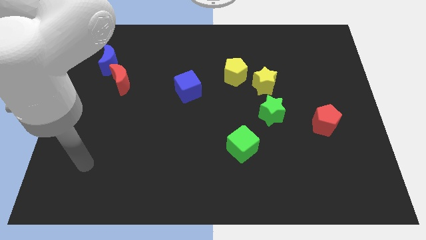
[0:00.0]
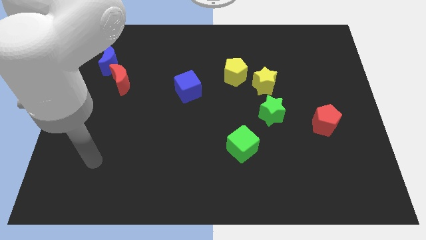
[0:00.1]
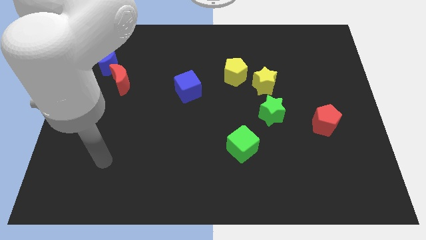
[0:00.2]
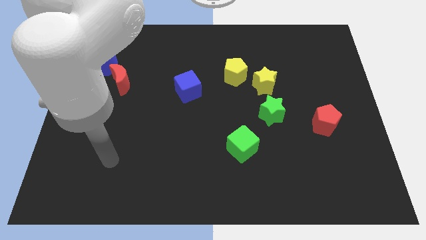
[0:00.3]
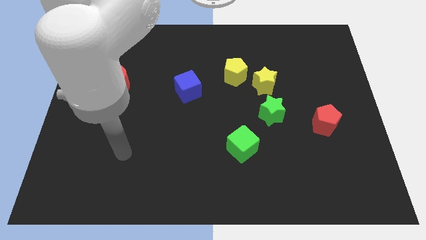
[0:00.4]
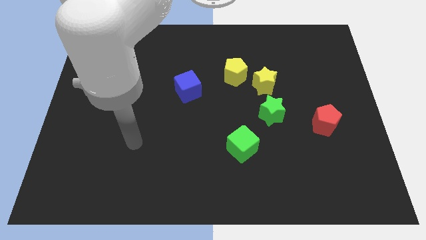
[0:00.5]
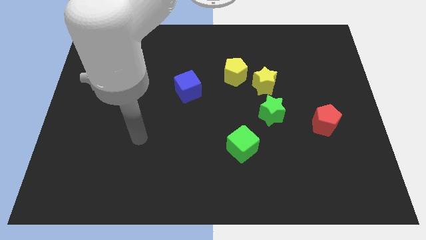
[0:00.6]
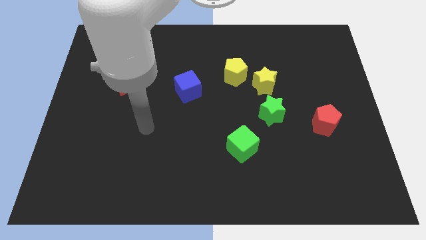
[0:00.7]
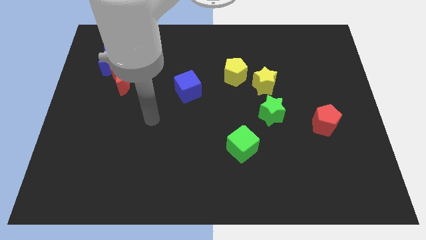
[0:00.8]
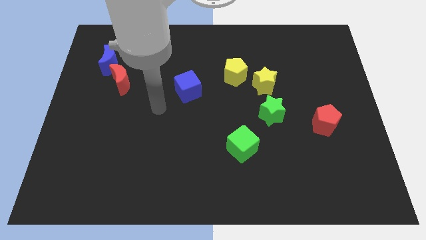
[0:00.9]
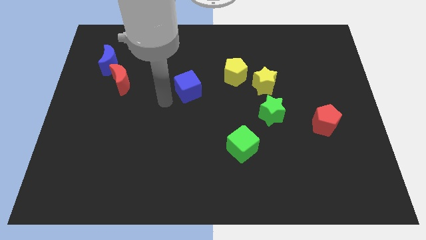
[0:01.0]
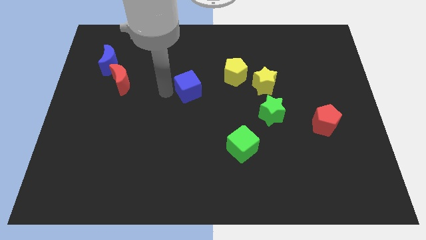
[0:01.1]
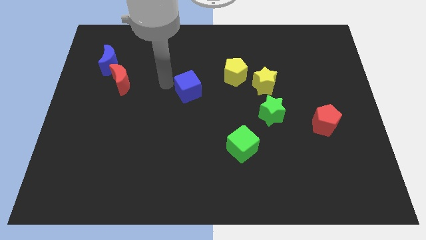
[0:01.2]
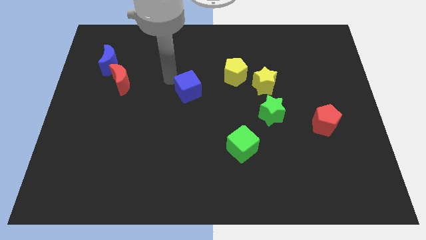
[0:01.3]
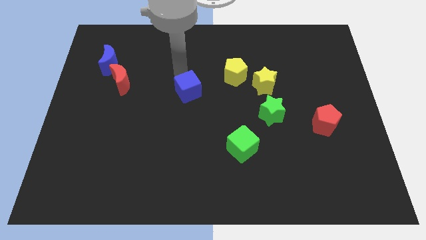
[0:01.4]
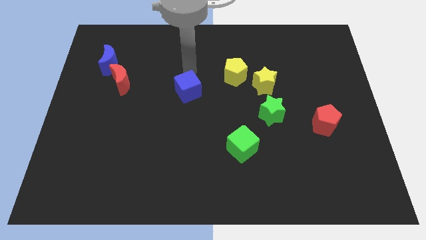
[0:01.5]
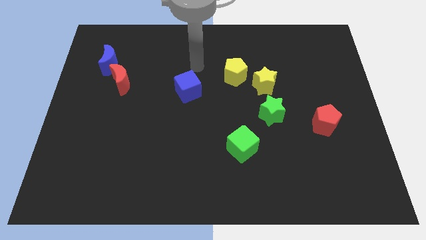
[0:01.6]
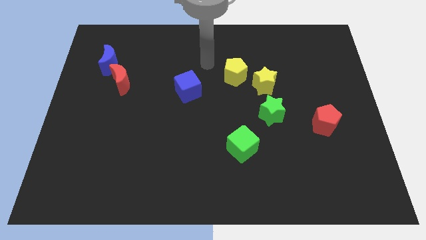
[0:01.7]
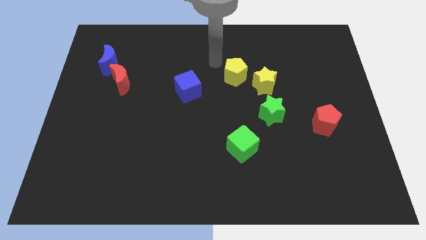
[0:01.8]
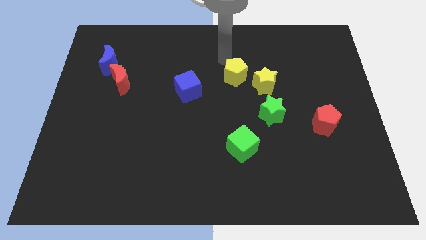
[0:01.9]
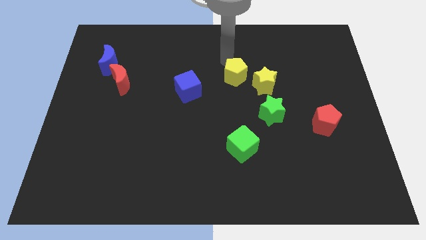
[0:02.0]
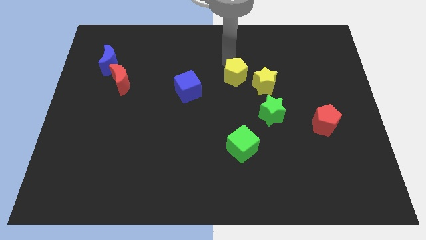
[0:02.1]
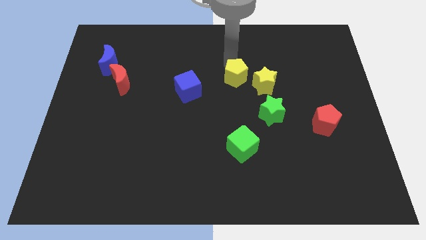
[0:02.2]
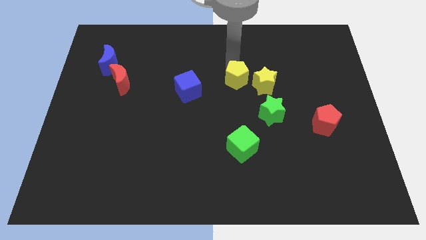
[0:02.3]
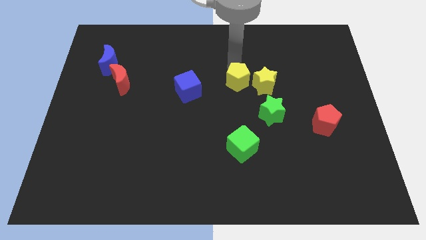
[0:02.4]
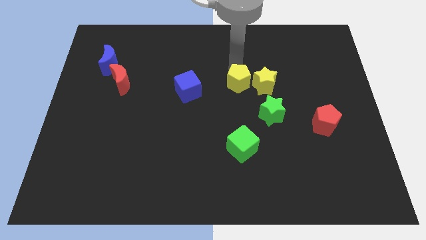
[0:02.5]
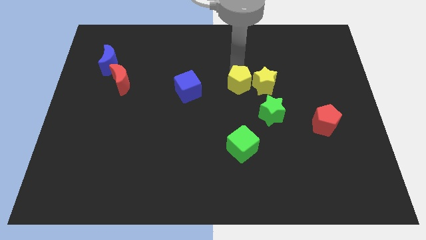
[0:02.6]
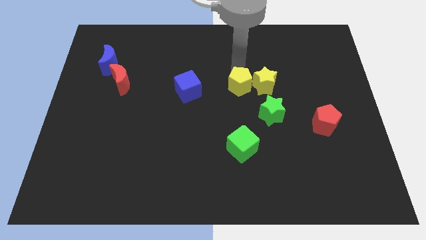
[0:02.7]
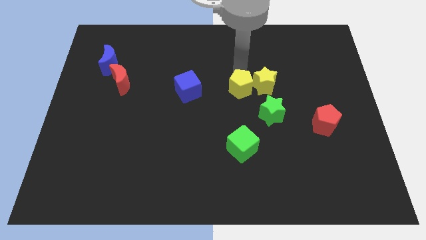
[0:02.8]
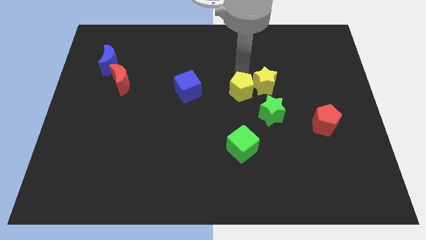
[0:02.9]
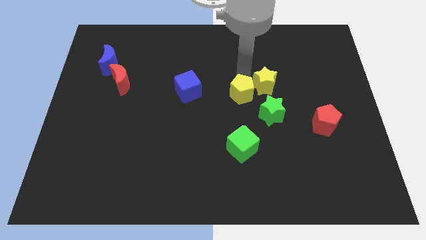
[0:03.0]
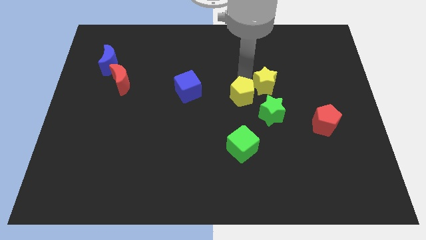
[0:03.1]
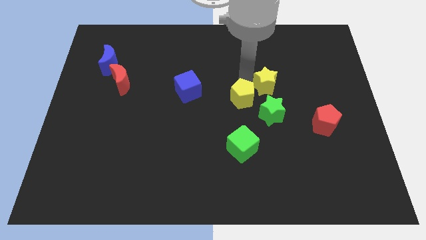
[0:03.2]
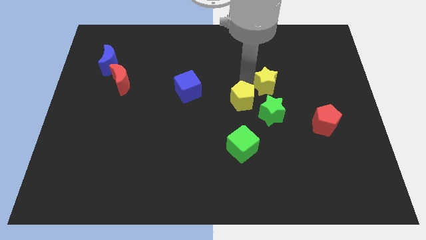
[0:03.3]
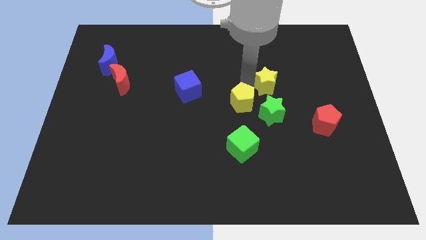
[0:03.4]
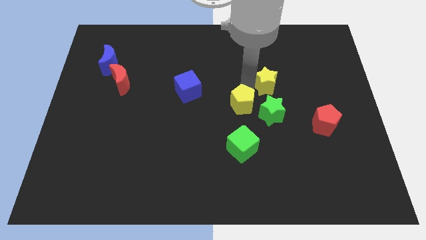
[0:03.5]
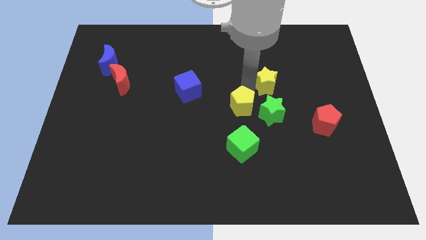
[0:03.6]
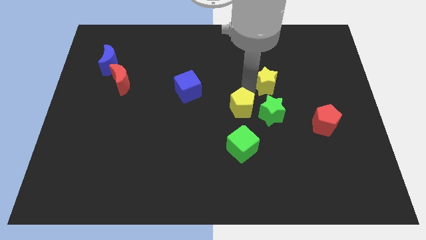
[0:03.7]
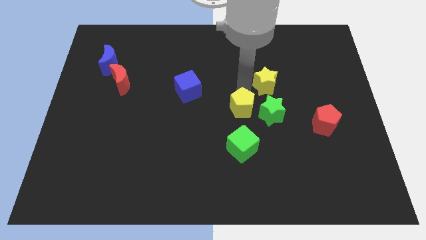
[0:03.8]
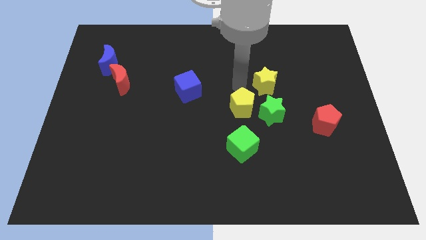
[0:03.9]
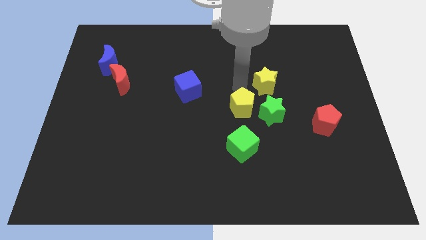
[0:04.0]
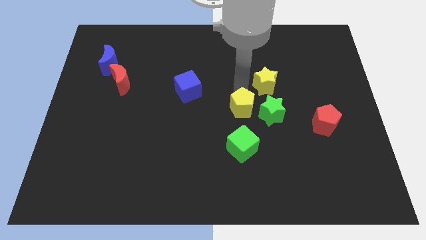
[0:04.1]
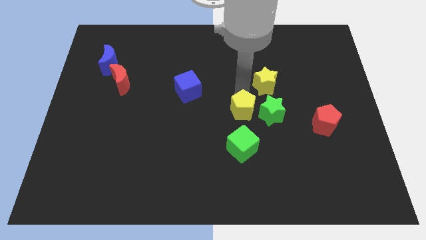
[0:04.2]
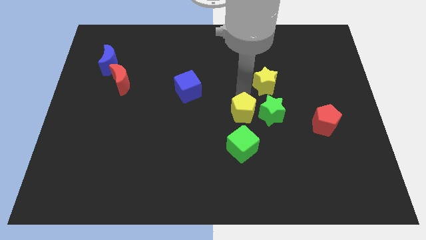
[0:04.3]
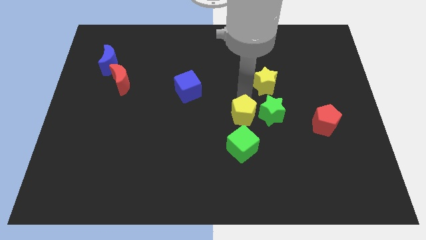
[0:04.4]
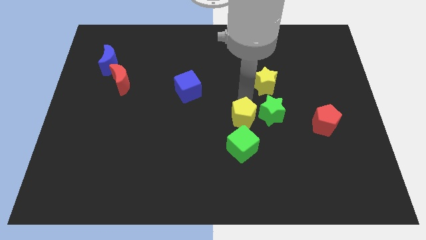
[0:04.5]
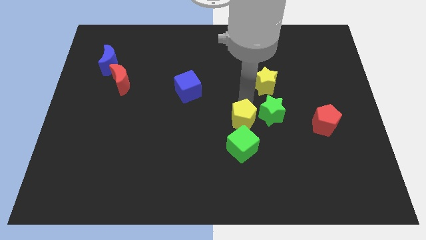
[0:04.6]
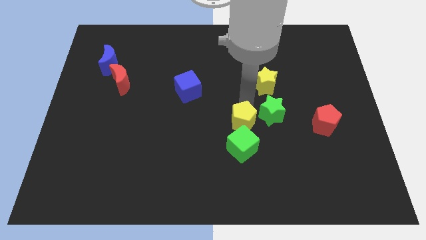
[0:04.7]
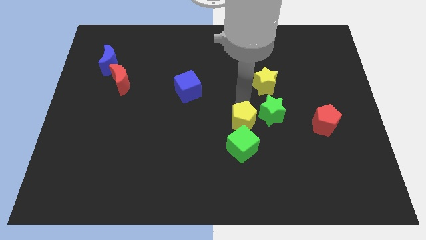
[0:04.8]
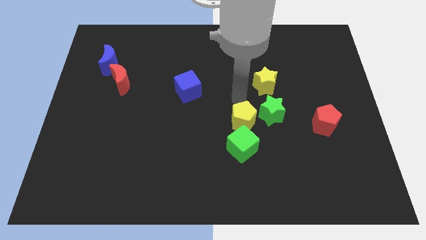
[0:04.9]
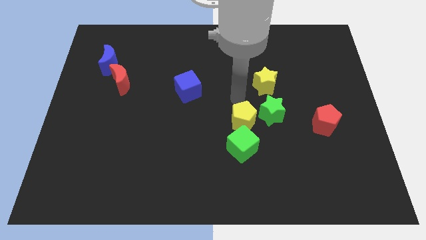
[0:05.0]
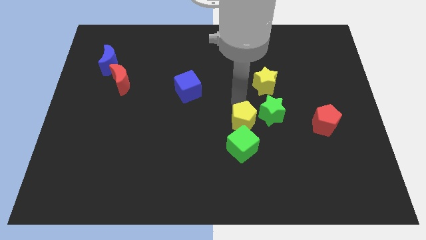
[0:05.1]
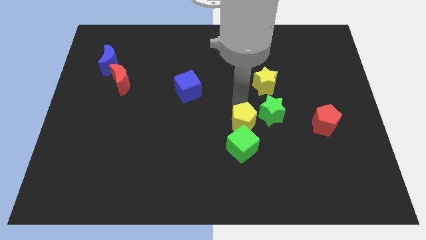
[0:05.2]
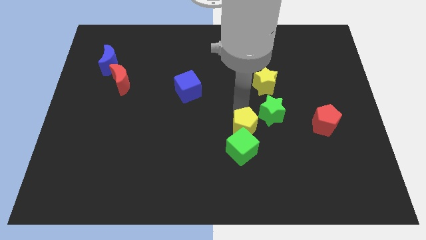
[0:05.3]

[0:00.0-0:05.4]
slide the yellow pentagon close to the green cube

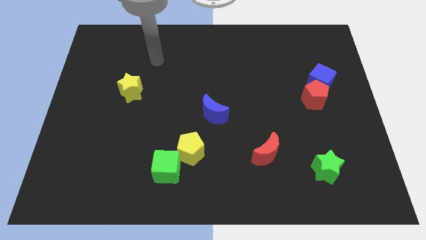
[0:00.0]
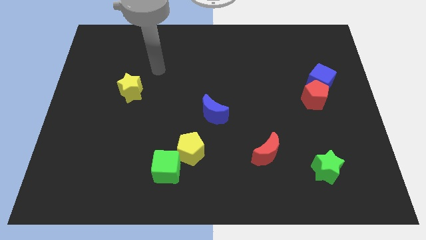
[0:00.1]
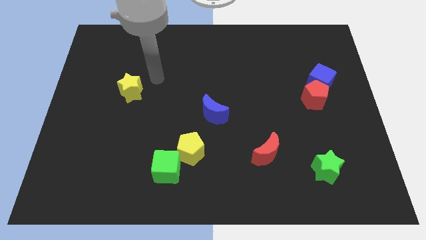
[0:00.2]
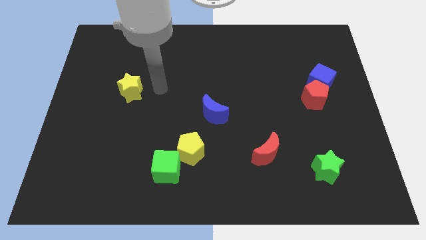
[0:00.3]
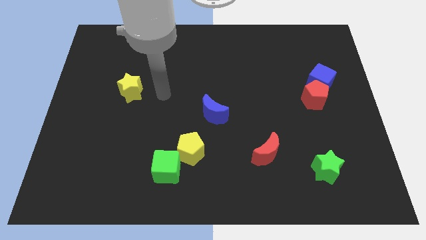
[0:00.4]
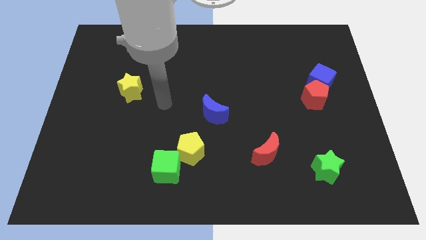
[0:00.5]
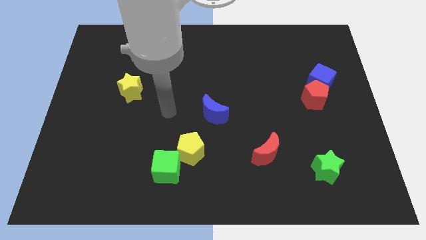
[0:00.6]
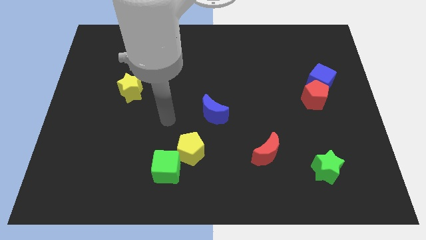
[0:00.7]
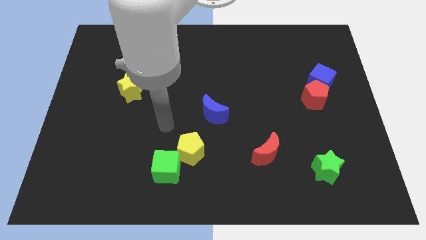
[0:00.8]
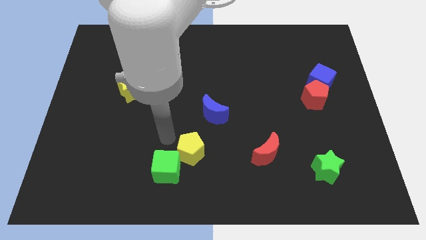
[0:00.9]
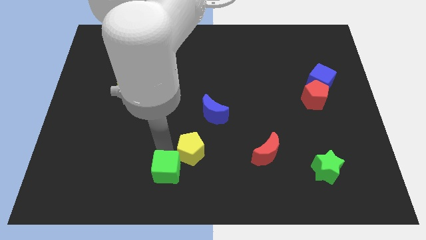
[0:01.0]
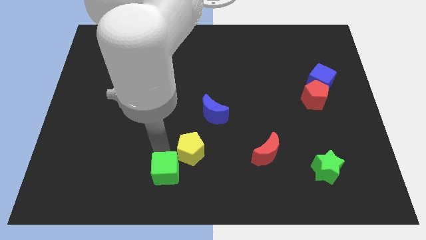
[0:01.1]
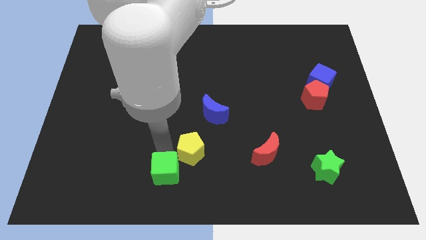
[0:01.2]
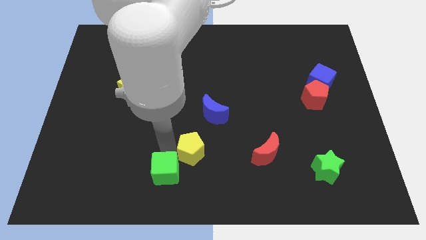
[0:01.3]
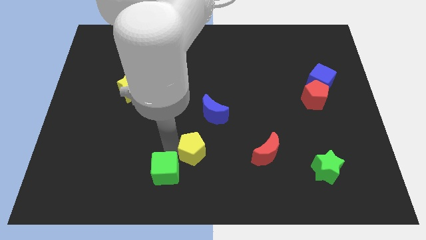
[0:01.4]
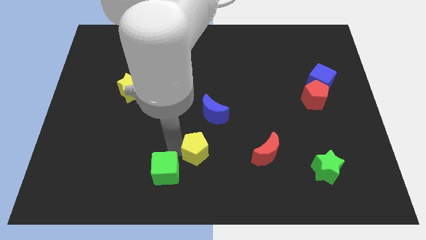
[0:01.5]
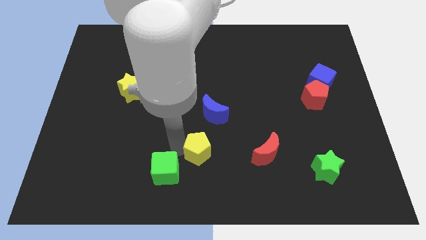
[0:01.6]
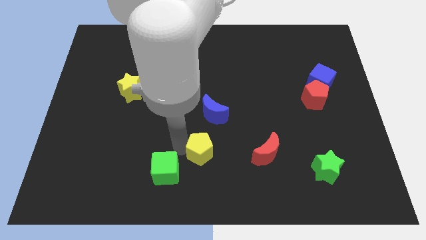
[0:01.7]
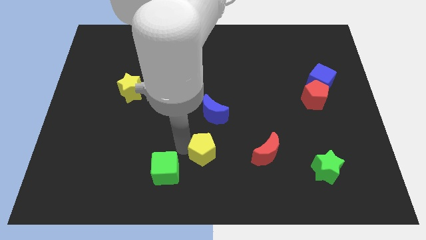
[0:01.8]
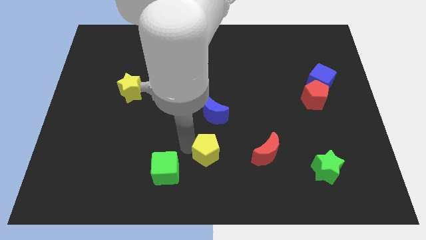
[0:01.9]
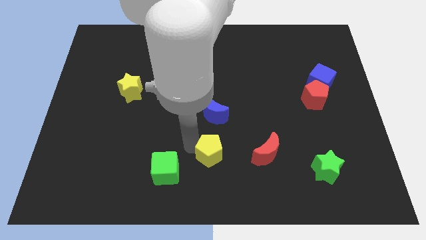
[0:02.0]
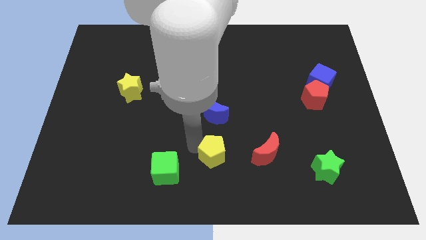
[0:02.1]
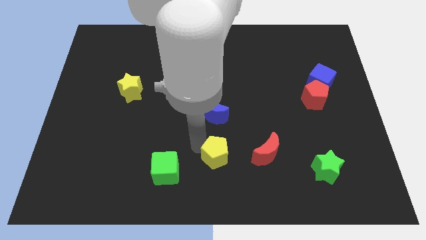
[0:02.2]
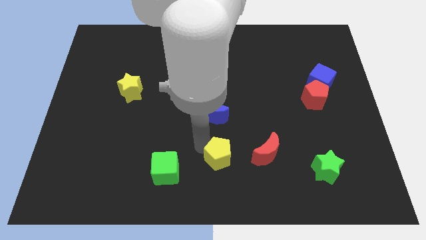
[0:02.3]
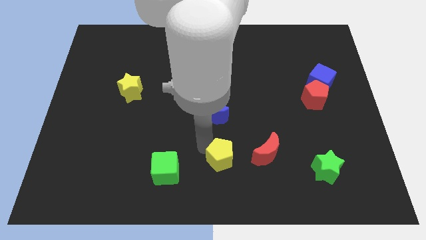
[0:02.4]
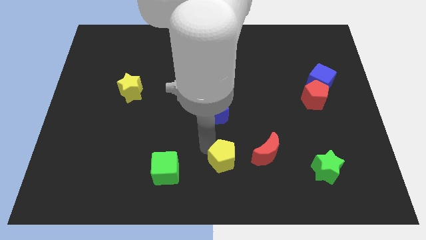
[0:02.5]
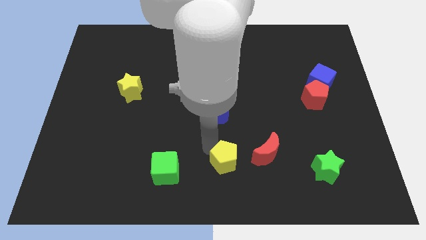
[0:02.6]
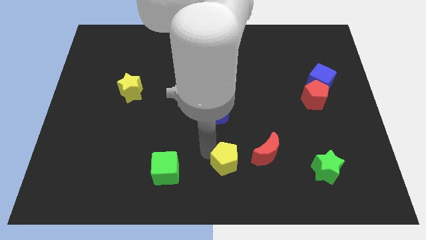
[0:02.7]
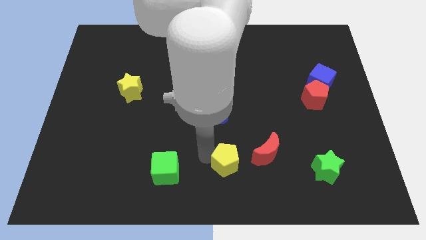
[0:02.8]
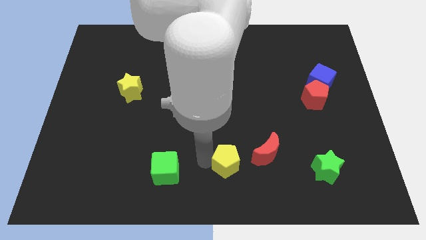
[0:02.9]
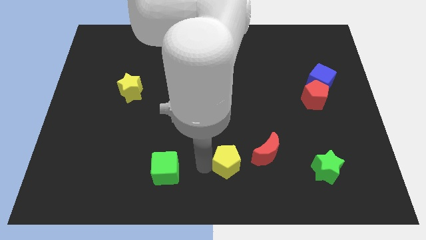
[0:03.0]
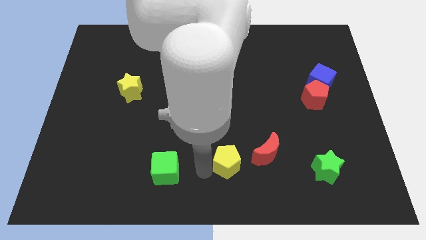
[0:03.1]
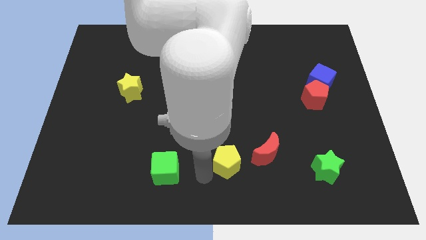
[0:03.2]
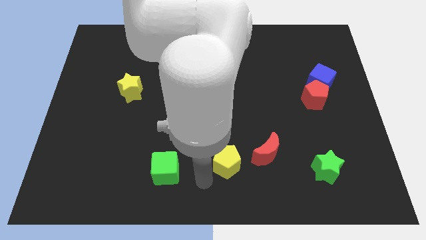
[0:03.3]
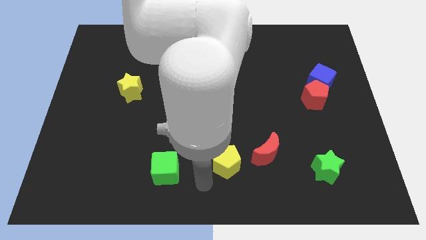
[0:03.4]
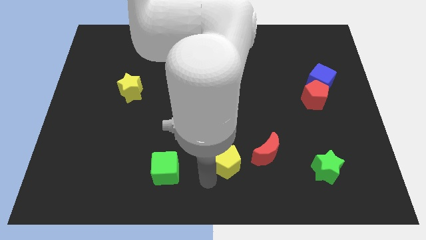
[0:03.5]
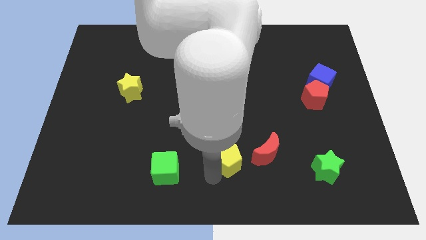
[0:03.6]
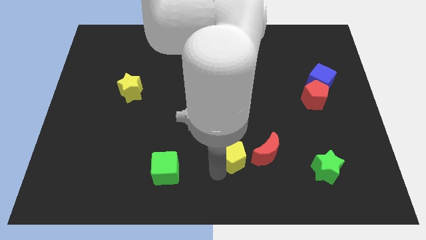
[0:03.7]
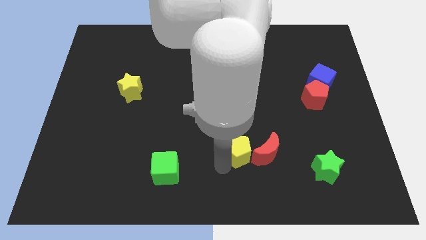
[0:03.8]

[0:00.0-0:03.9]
put the yellow pentagon to the red moon
